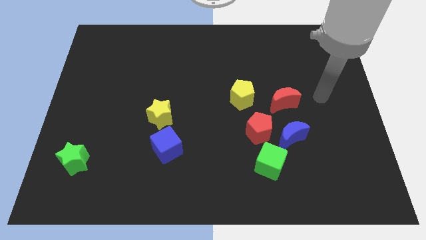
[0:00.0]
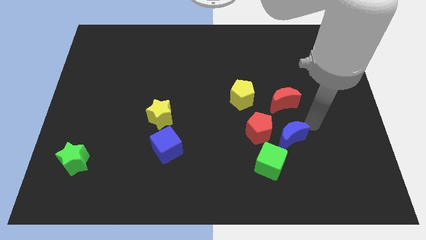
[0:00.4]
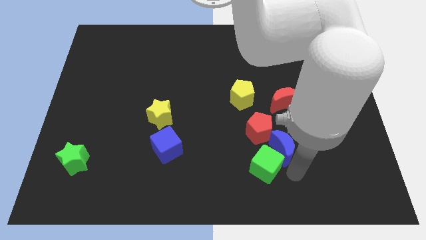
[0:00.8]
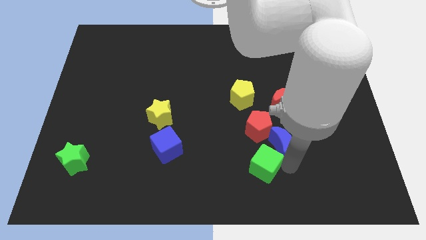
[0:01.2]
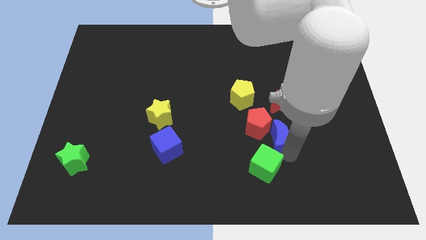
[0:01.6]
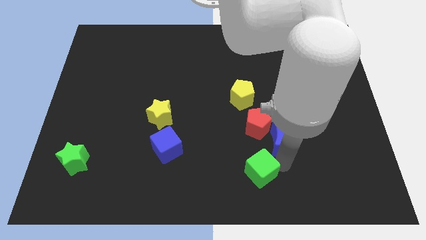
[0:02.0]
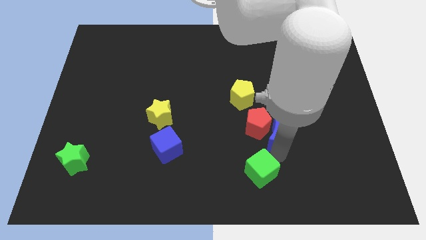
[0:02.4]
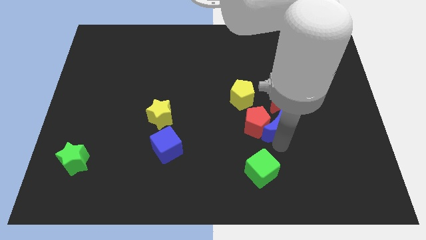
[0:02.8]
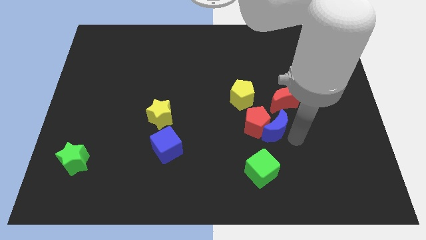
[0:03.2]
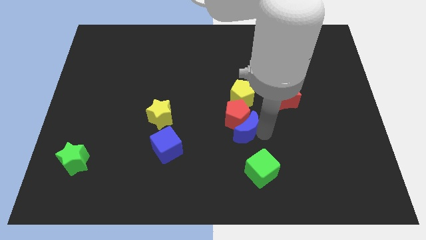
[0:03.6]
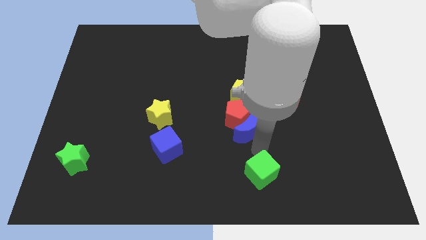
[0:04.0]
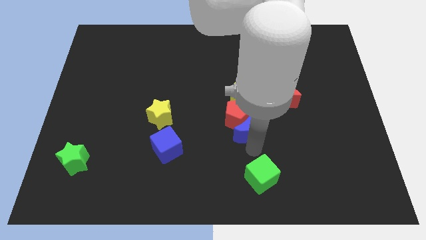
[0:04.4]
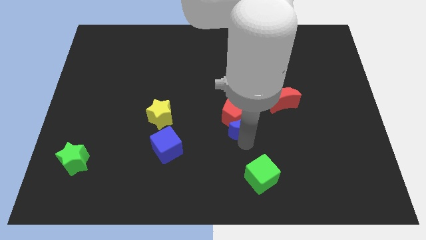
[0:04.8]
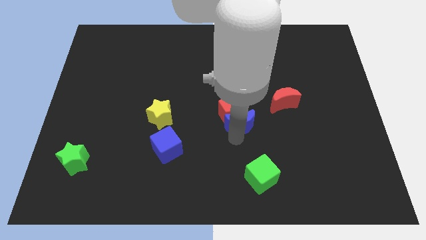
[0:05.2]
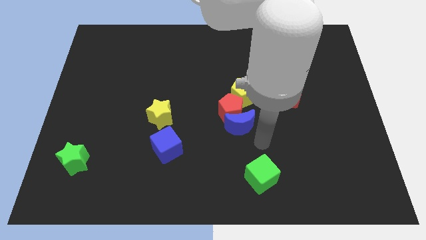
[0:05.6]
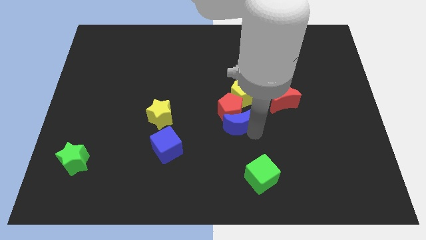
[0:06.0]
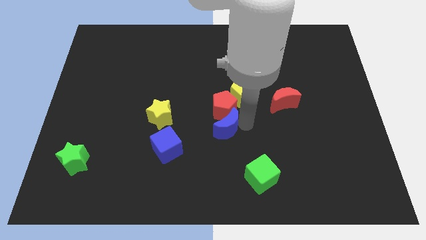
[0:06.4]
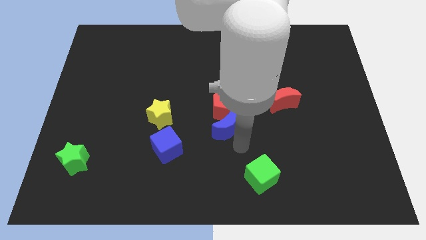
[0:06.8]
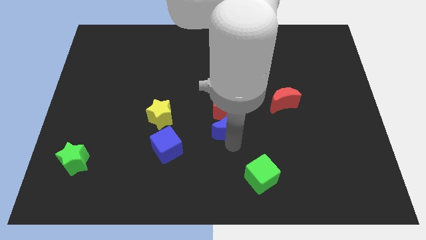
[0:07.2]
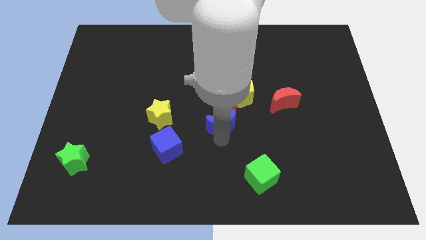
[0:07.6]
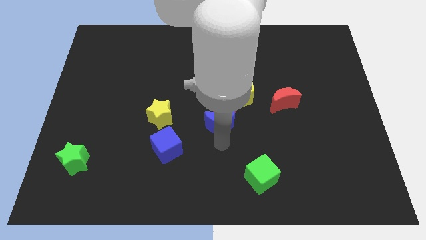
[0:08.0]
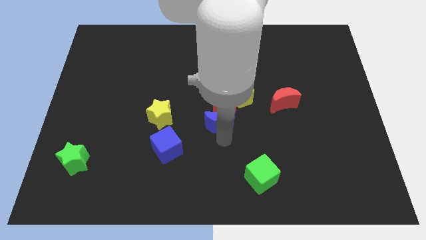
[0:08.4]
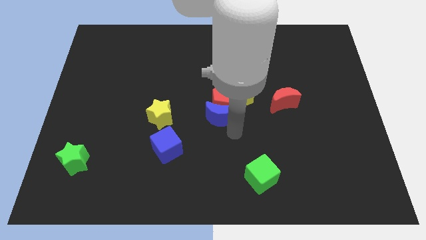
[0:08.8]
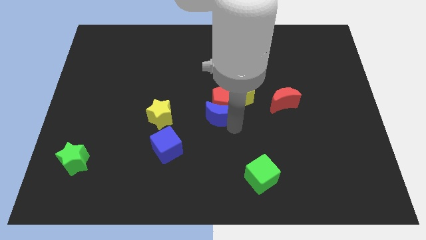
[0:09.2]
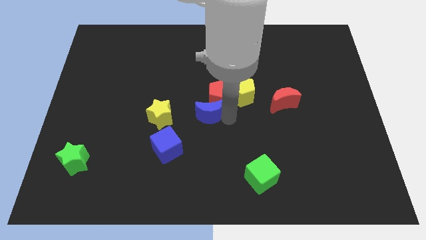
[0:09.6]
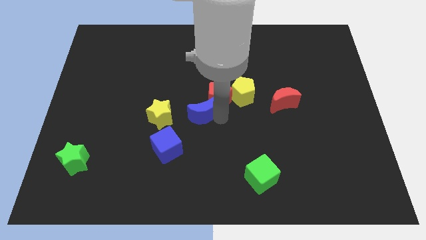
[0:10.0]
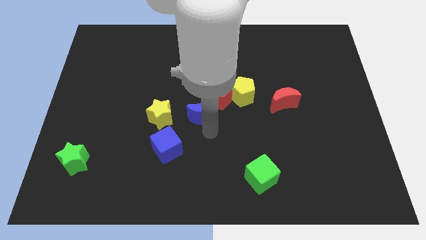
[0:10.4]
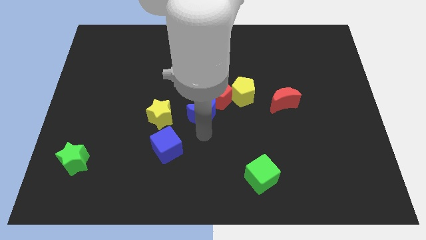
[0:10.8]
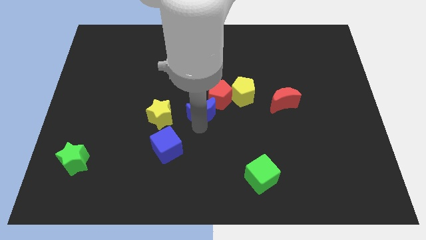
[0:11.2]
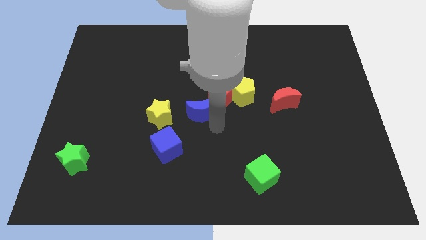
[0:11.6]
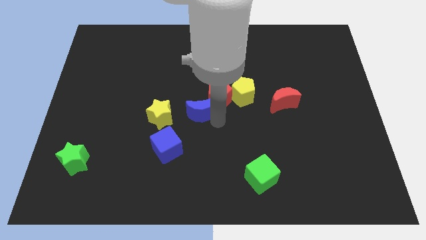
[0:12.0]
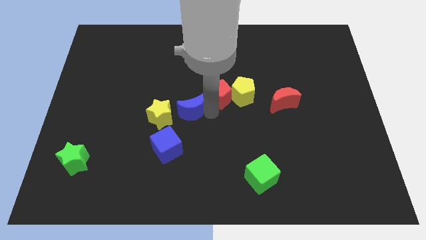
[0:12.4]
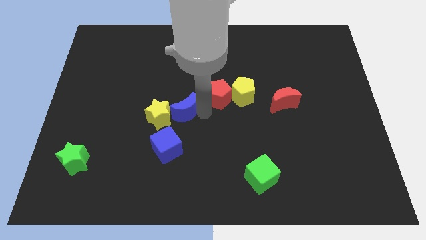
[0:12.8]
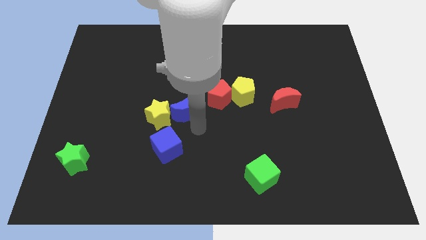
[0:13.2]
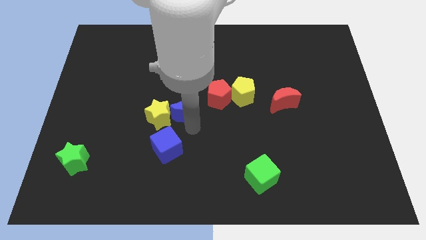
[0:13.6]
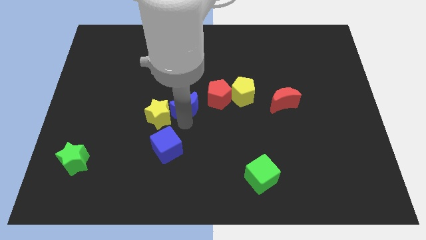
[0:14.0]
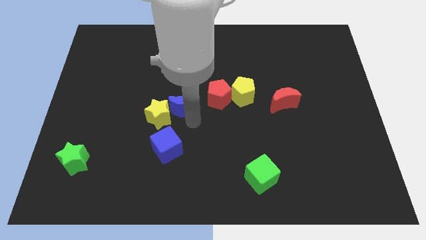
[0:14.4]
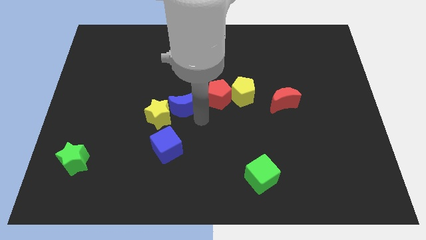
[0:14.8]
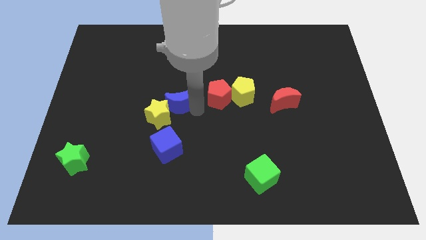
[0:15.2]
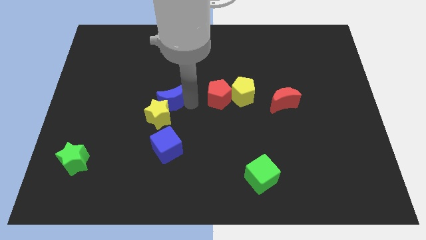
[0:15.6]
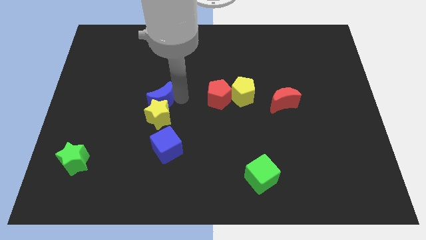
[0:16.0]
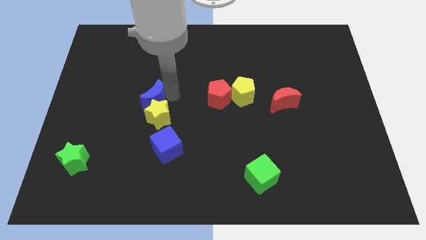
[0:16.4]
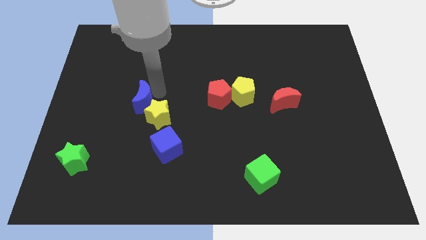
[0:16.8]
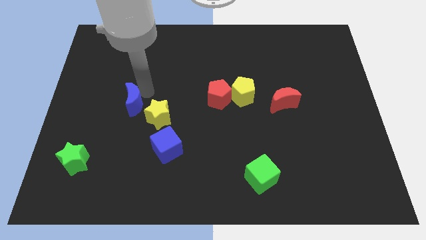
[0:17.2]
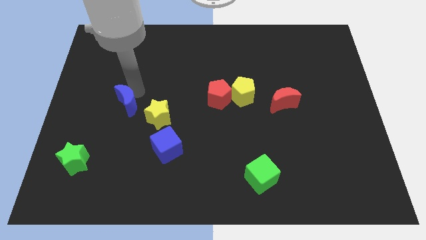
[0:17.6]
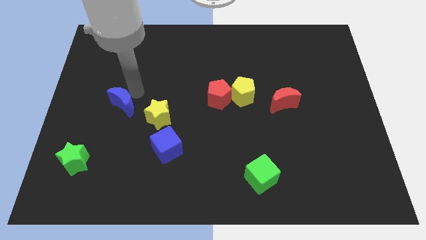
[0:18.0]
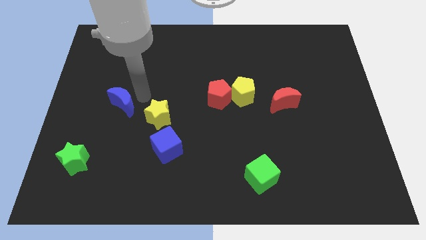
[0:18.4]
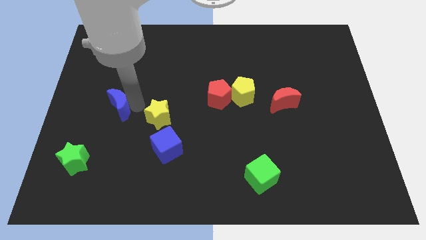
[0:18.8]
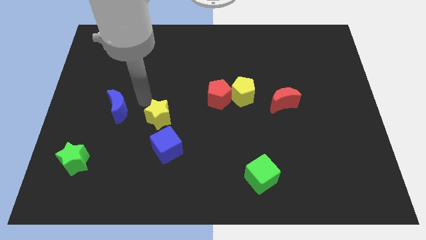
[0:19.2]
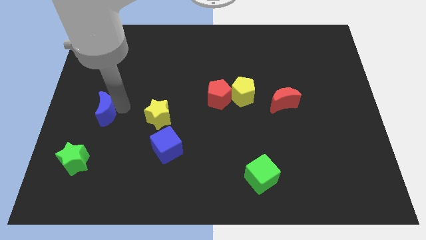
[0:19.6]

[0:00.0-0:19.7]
move the blue moon above the green star

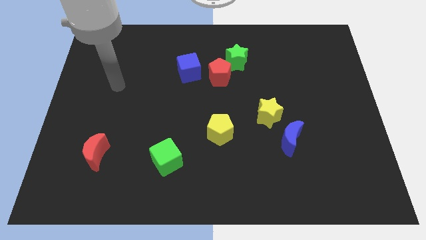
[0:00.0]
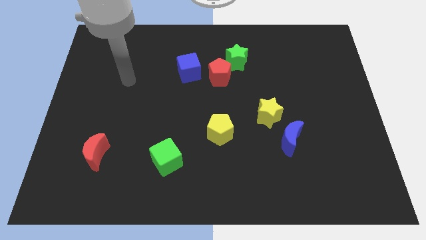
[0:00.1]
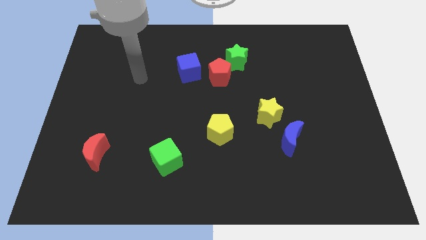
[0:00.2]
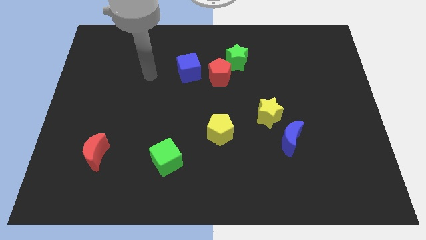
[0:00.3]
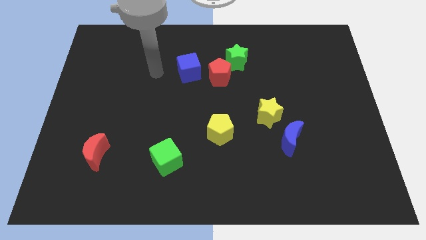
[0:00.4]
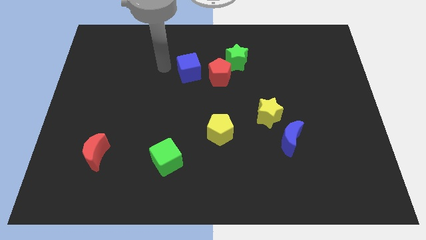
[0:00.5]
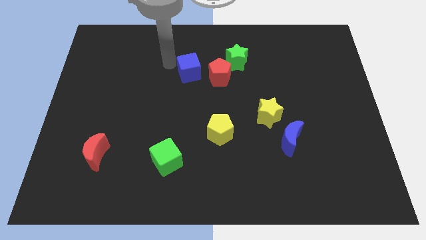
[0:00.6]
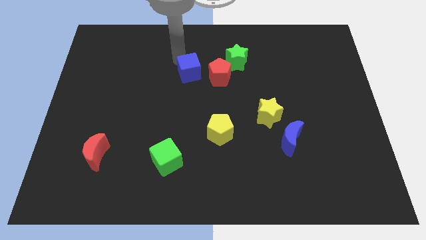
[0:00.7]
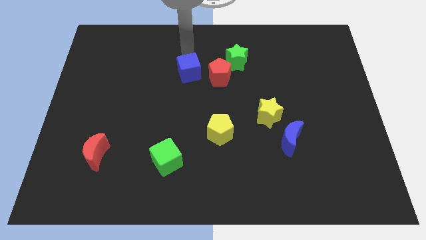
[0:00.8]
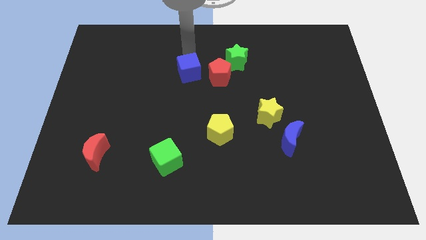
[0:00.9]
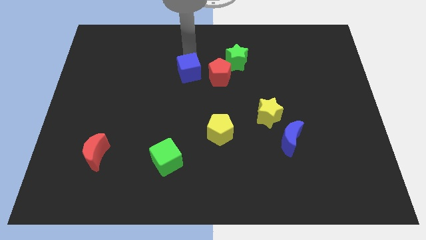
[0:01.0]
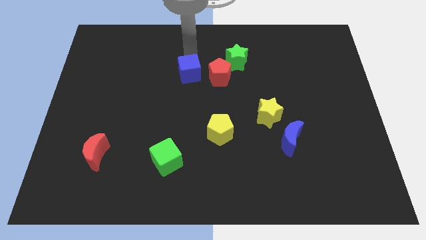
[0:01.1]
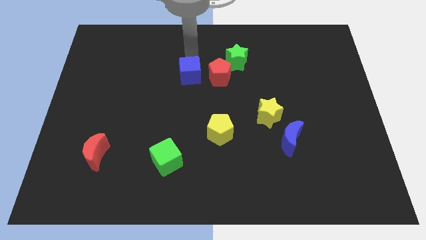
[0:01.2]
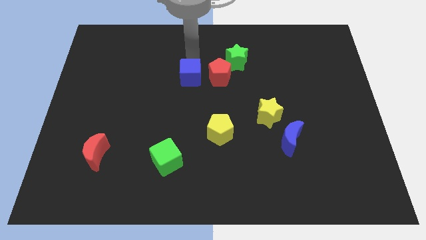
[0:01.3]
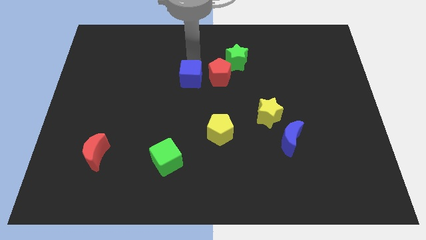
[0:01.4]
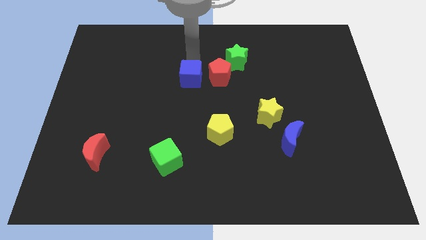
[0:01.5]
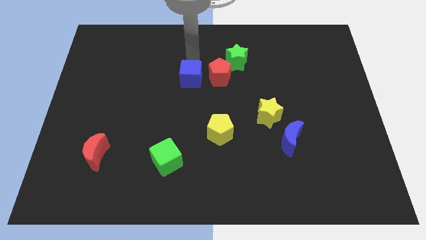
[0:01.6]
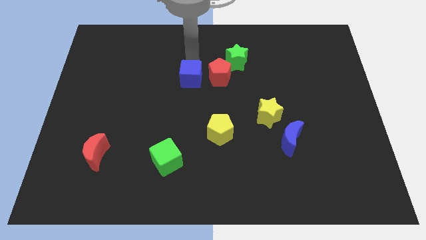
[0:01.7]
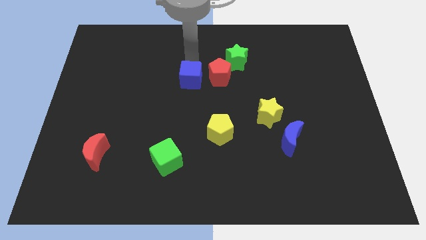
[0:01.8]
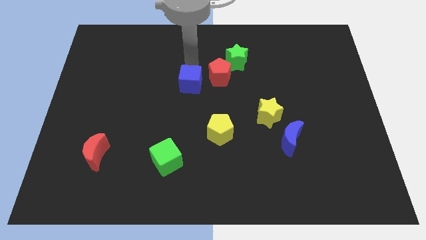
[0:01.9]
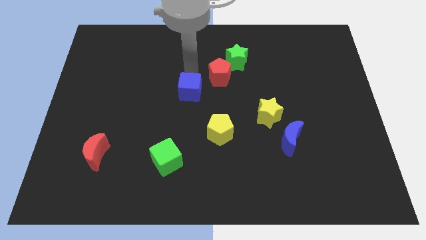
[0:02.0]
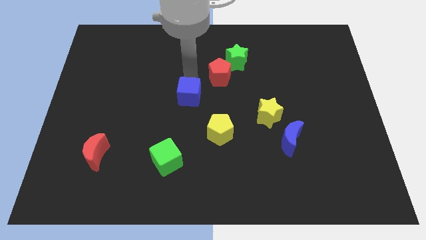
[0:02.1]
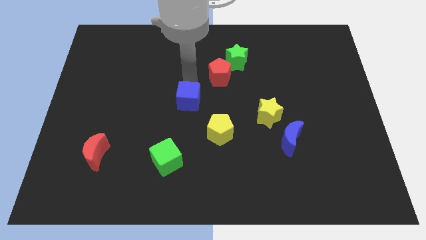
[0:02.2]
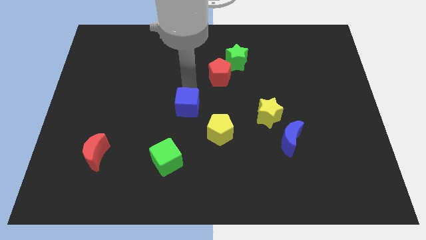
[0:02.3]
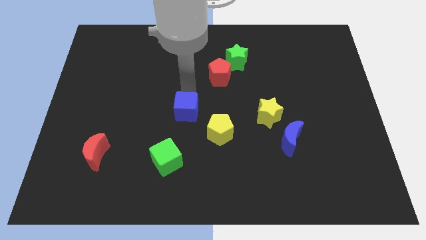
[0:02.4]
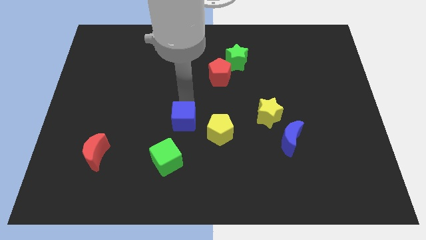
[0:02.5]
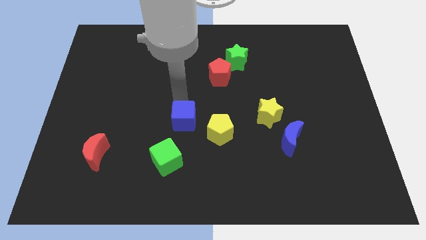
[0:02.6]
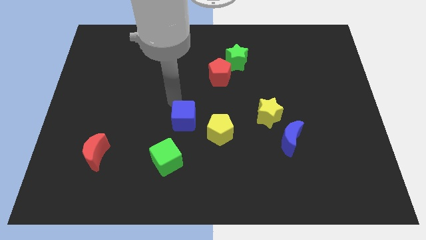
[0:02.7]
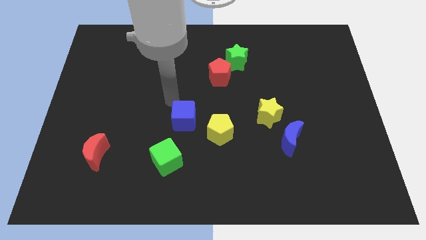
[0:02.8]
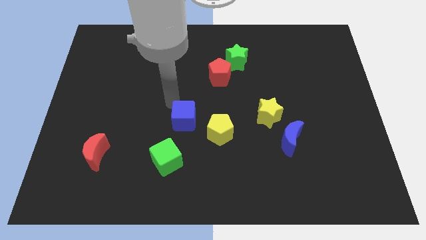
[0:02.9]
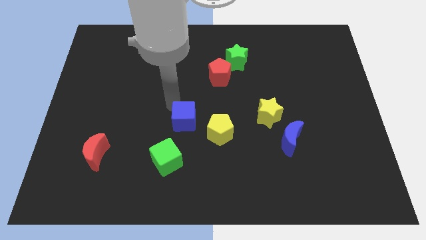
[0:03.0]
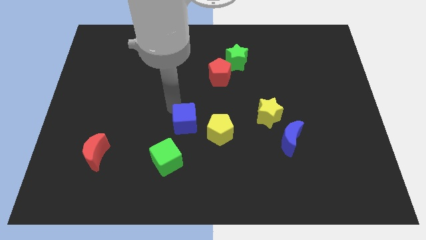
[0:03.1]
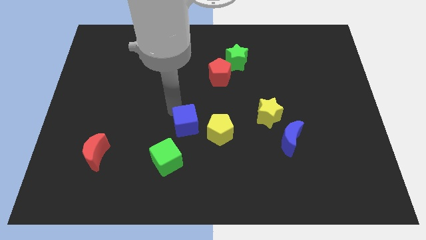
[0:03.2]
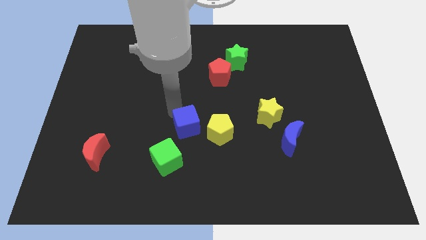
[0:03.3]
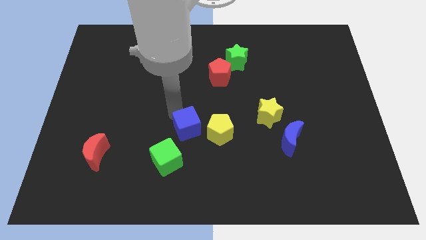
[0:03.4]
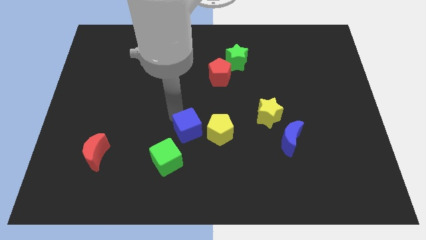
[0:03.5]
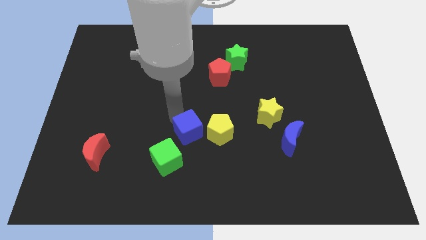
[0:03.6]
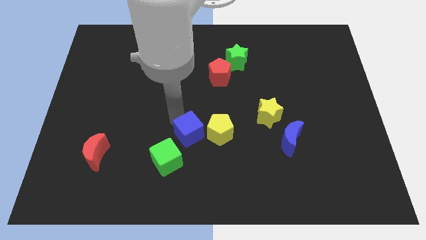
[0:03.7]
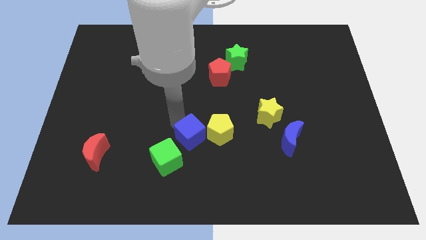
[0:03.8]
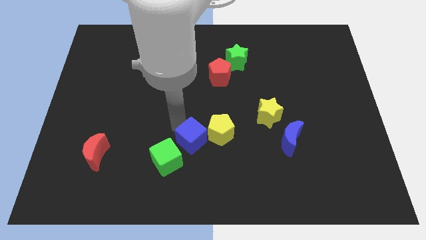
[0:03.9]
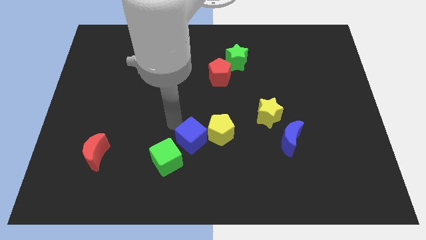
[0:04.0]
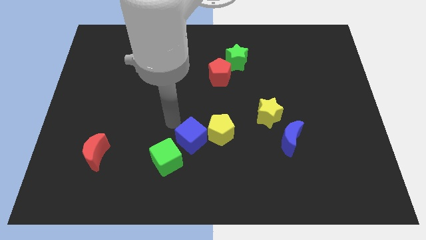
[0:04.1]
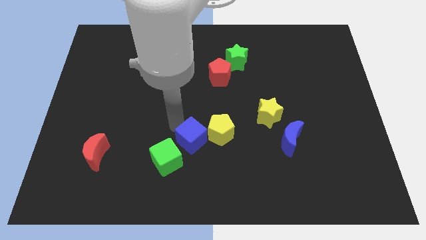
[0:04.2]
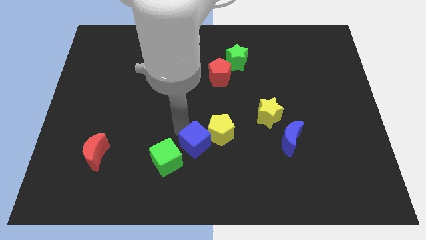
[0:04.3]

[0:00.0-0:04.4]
push the blue cube to the right side of the green cube
